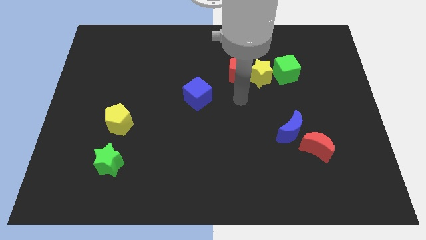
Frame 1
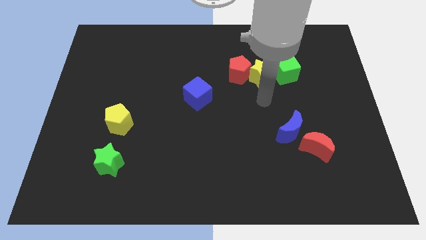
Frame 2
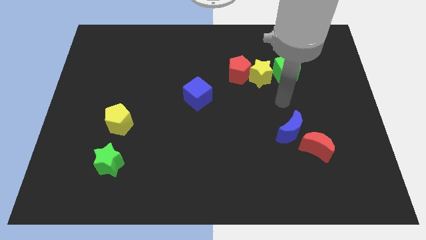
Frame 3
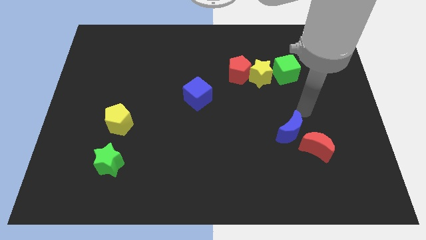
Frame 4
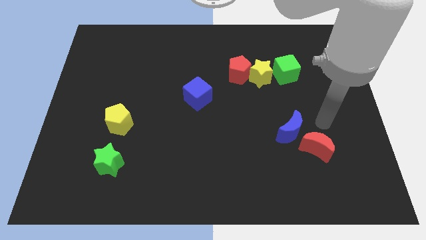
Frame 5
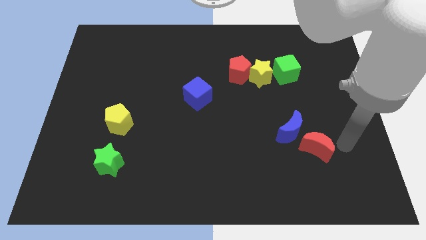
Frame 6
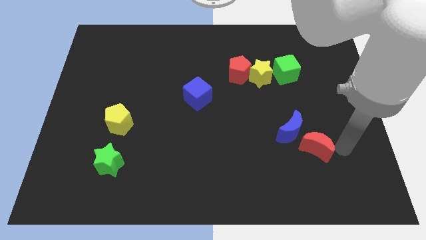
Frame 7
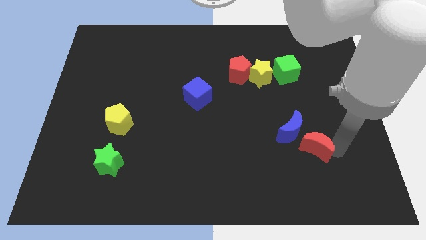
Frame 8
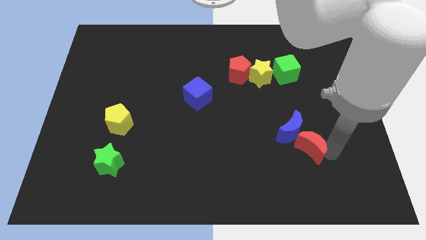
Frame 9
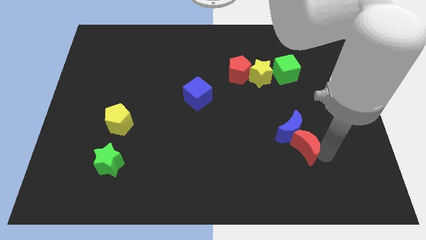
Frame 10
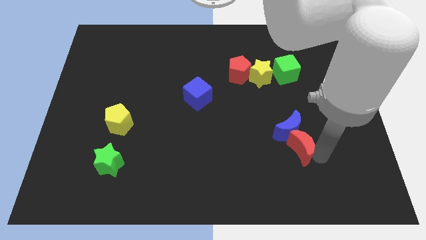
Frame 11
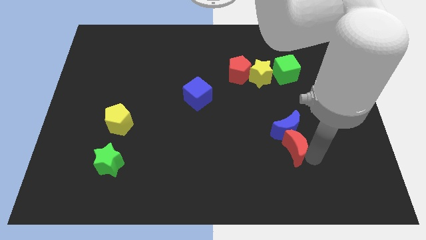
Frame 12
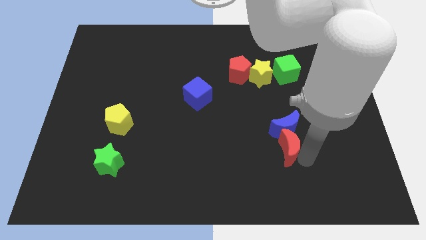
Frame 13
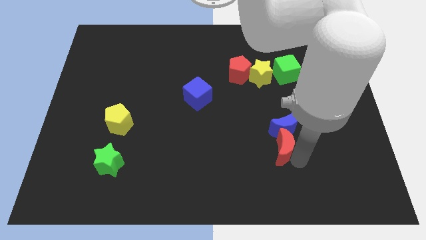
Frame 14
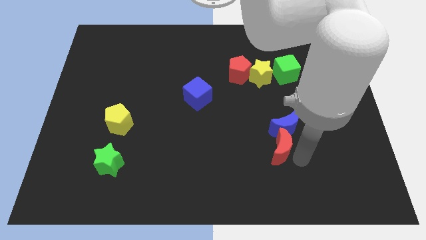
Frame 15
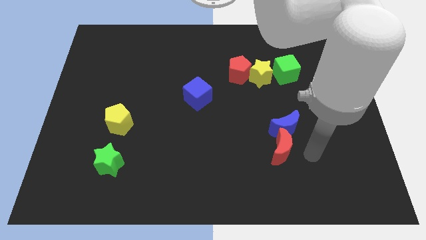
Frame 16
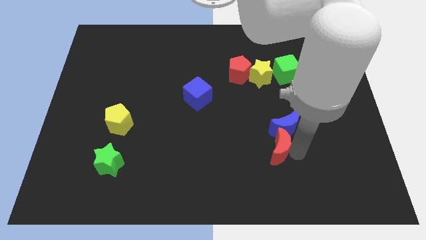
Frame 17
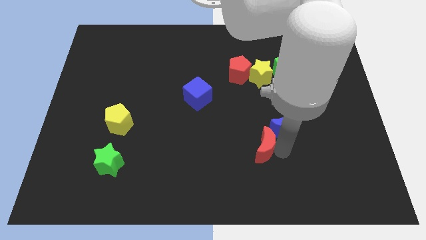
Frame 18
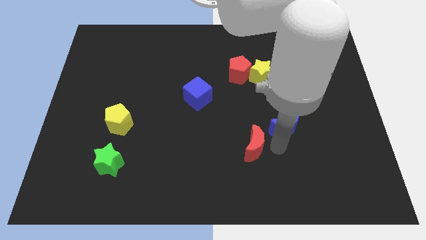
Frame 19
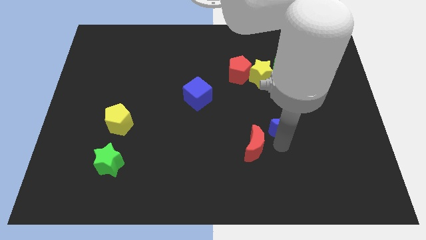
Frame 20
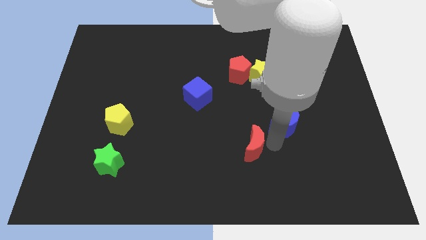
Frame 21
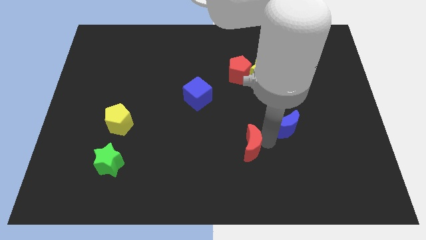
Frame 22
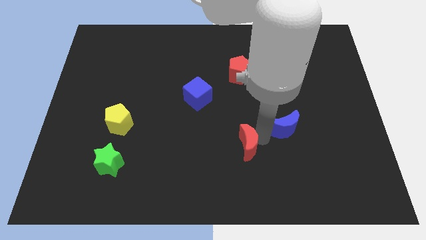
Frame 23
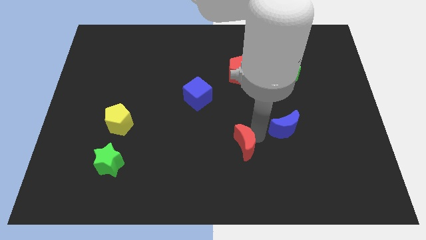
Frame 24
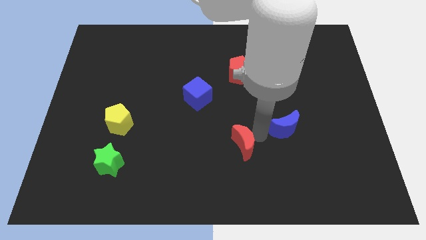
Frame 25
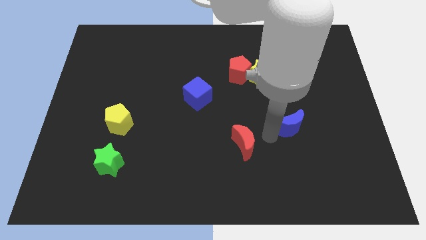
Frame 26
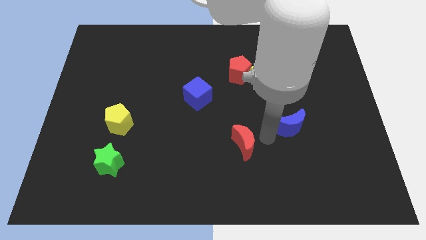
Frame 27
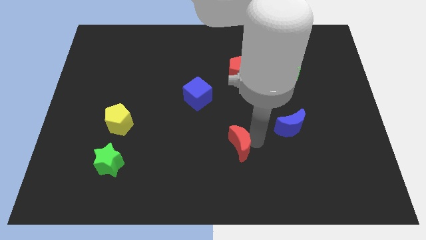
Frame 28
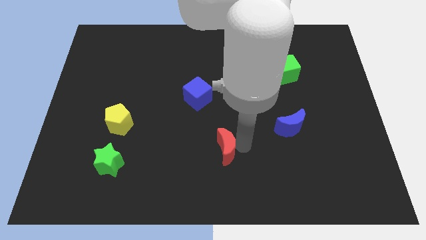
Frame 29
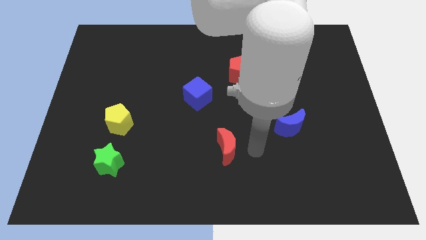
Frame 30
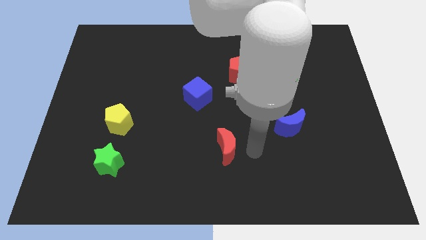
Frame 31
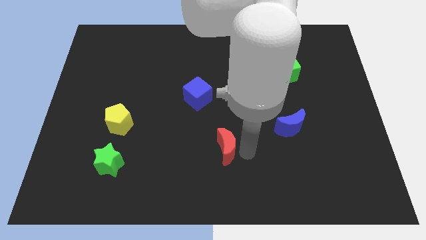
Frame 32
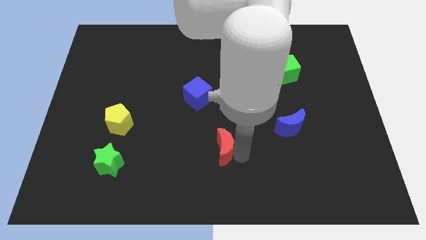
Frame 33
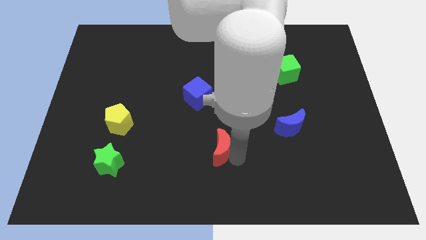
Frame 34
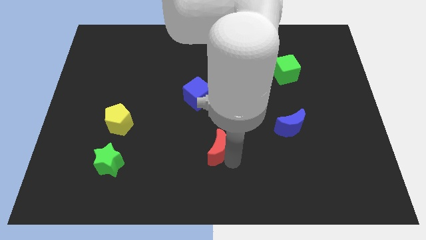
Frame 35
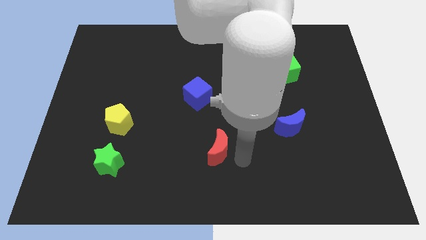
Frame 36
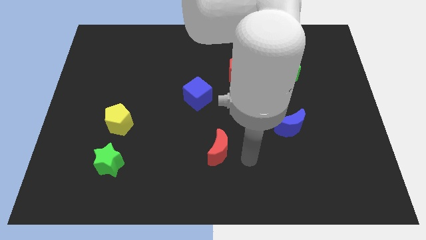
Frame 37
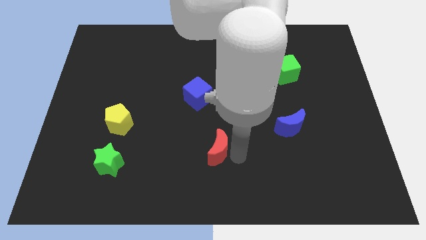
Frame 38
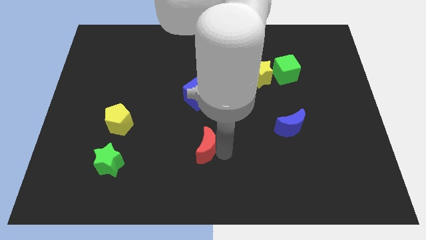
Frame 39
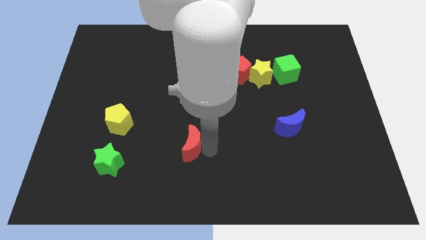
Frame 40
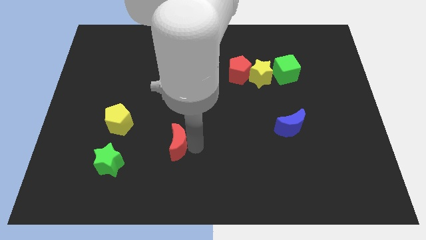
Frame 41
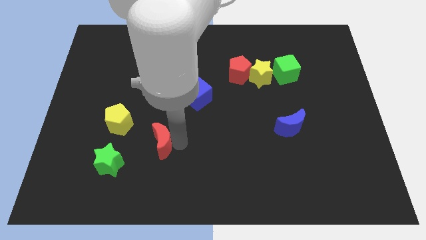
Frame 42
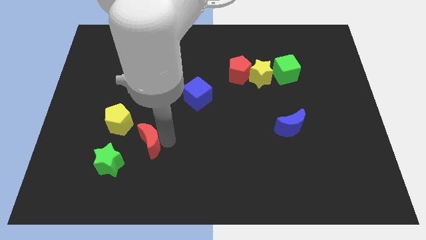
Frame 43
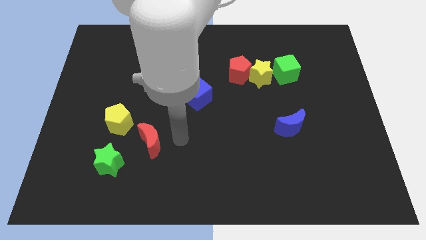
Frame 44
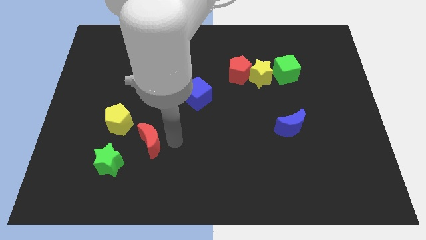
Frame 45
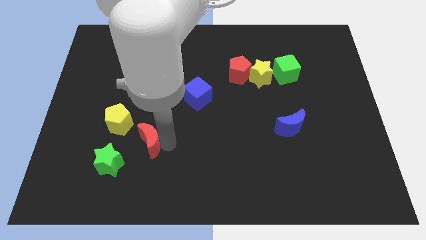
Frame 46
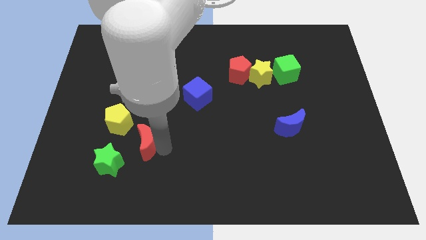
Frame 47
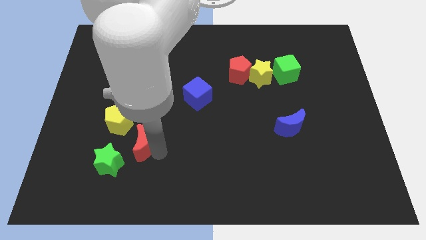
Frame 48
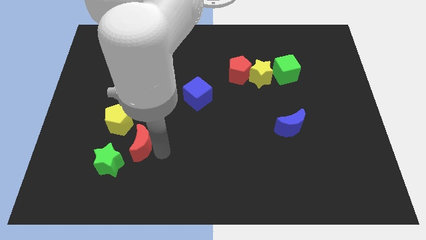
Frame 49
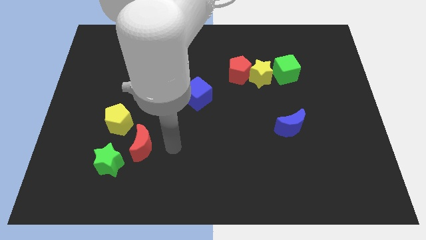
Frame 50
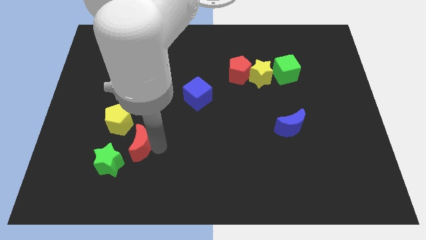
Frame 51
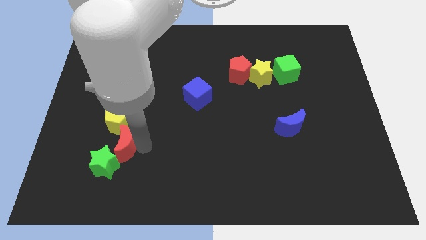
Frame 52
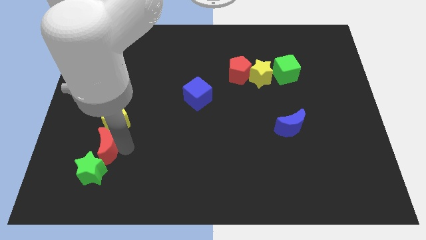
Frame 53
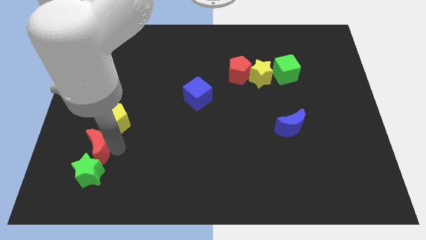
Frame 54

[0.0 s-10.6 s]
put the red moon to the top left of the green star

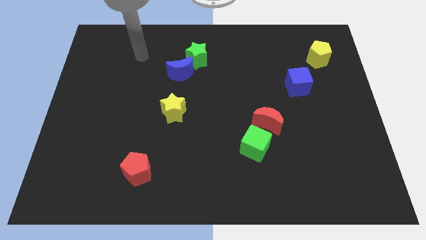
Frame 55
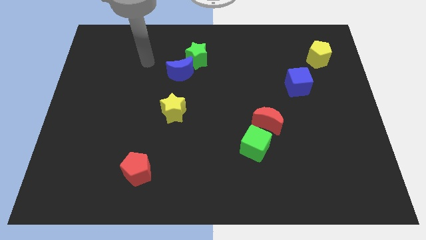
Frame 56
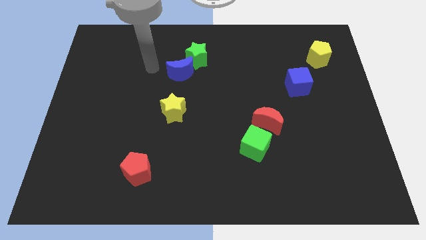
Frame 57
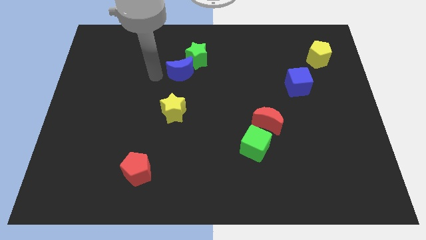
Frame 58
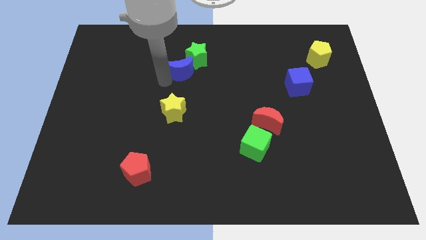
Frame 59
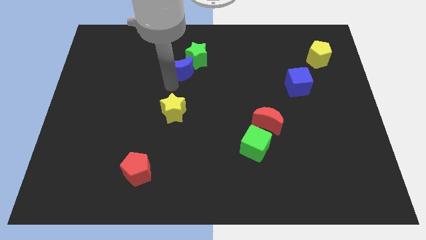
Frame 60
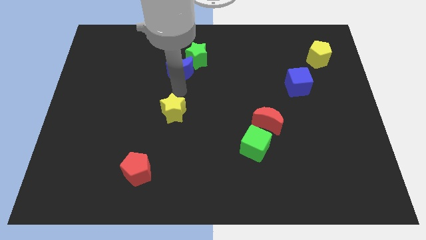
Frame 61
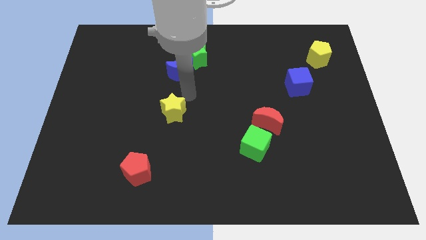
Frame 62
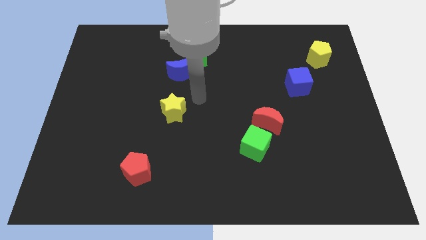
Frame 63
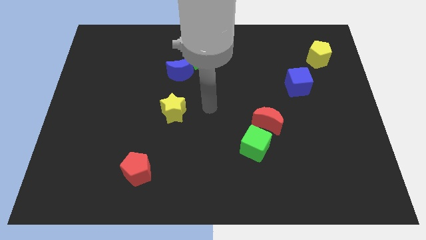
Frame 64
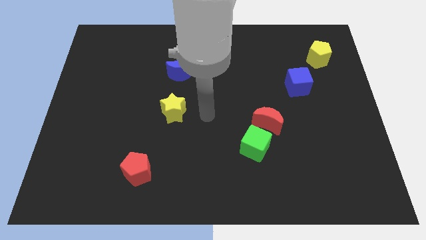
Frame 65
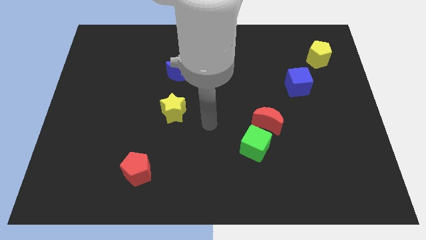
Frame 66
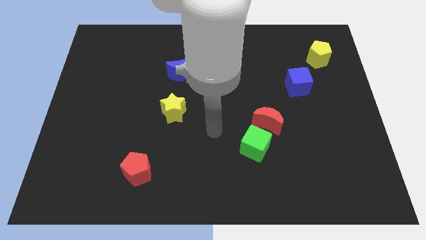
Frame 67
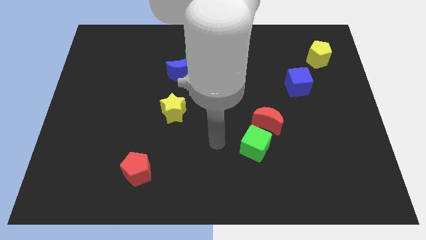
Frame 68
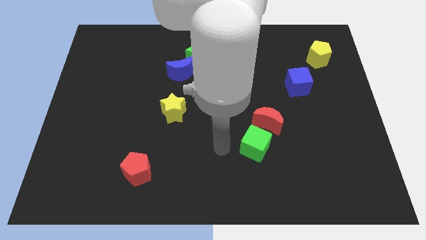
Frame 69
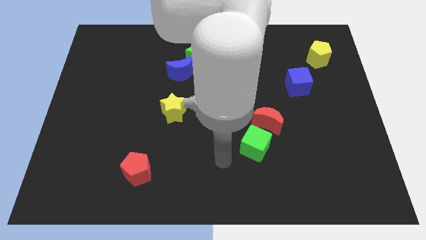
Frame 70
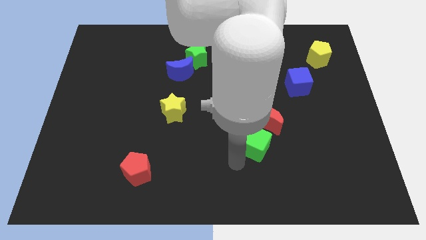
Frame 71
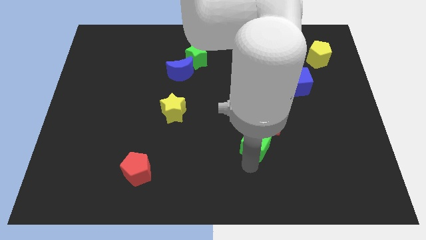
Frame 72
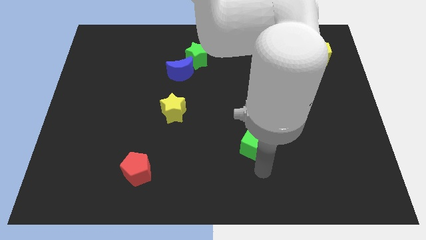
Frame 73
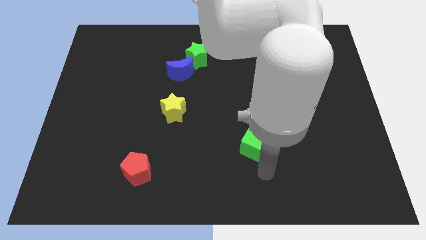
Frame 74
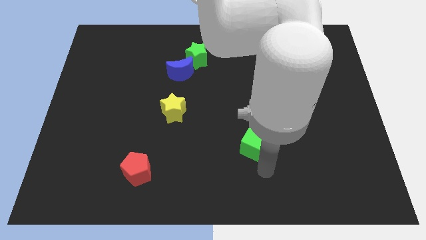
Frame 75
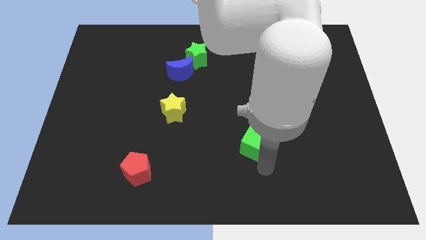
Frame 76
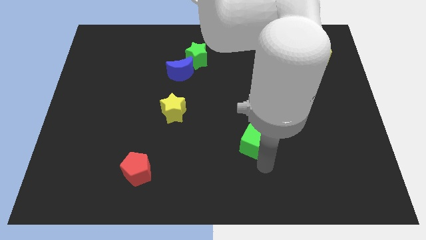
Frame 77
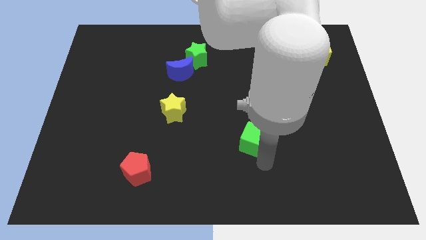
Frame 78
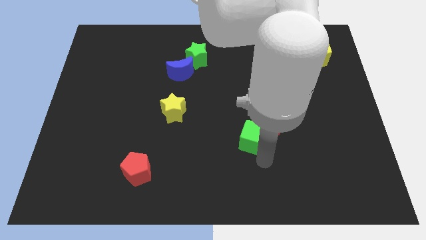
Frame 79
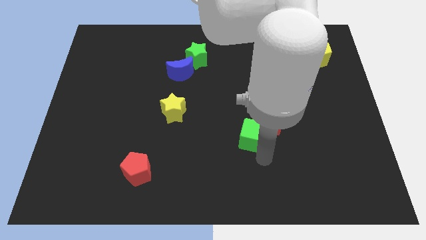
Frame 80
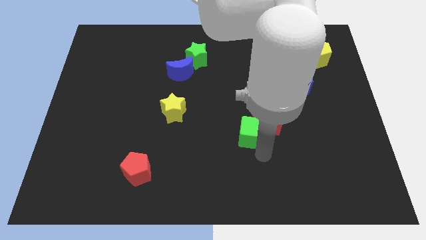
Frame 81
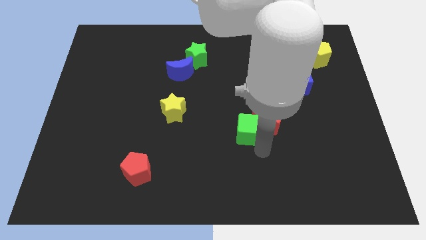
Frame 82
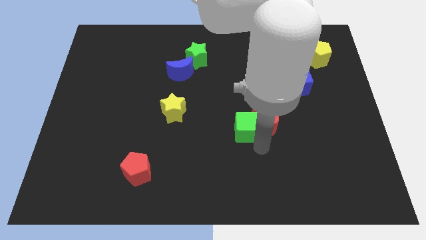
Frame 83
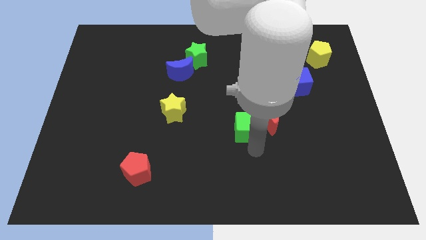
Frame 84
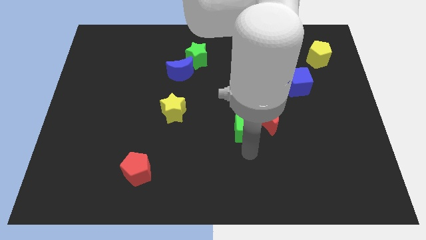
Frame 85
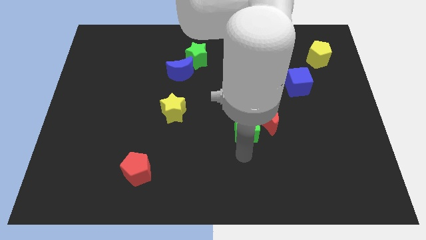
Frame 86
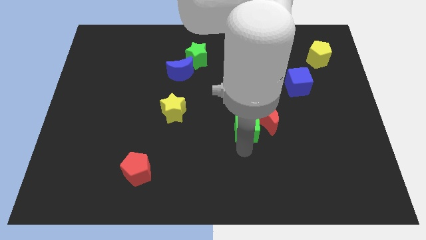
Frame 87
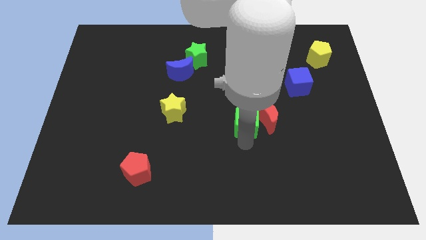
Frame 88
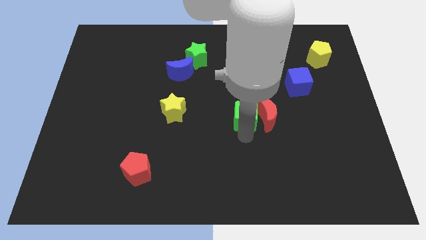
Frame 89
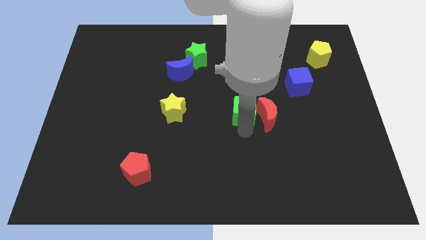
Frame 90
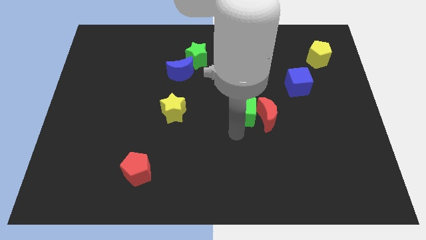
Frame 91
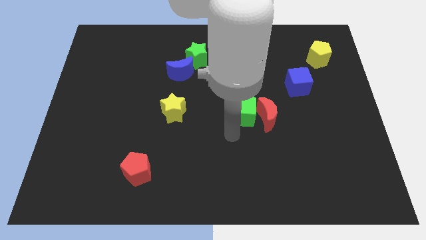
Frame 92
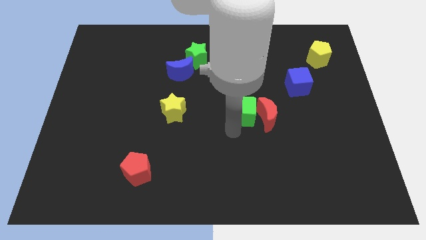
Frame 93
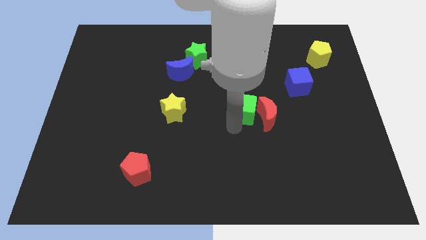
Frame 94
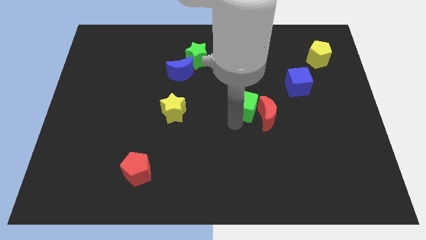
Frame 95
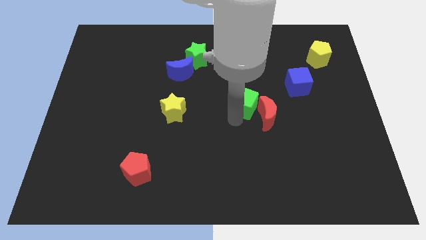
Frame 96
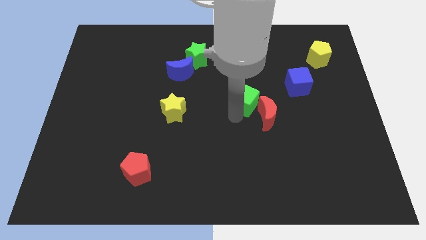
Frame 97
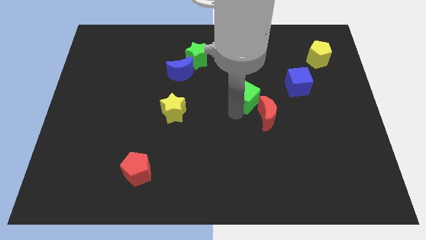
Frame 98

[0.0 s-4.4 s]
put the green cube above the red moon
